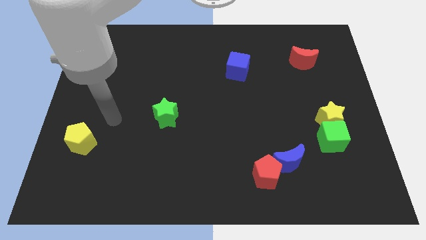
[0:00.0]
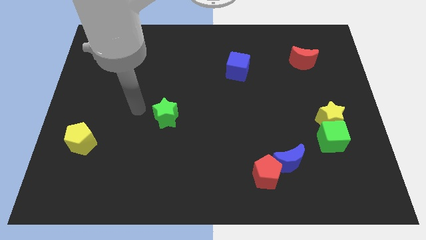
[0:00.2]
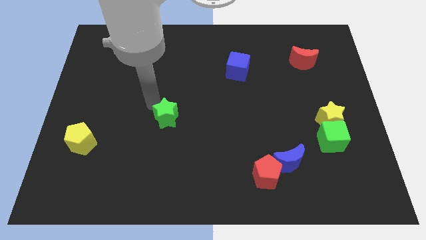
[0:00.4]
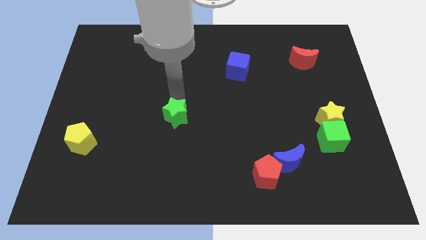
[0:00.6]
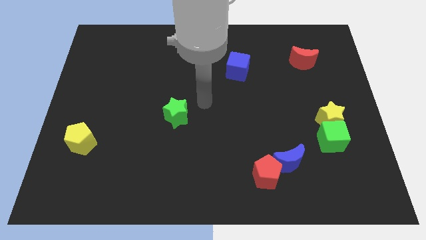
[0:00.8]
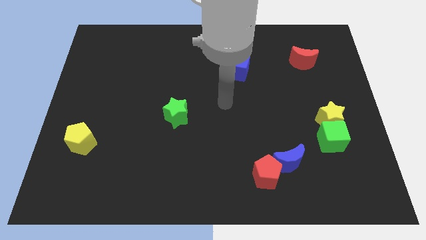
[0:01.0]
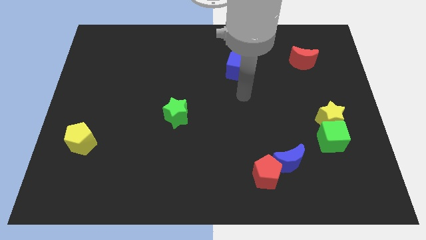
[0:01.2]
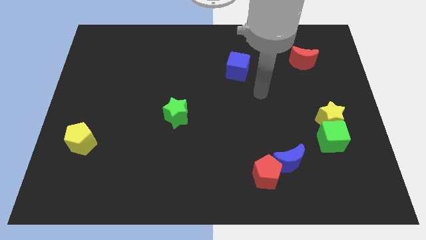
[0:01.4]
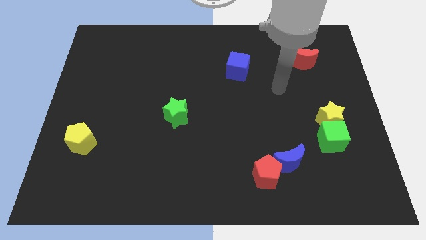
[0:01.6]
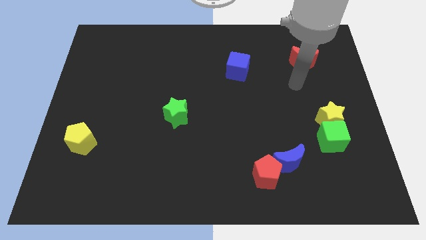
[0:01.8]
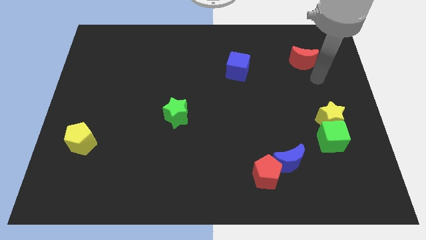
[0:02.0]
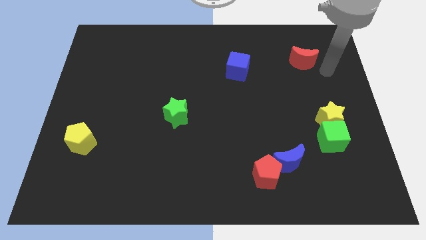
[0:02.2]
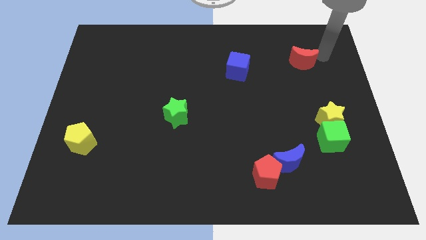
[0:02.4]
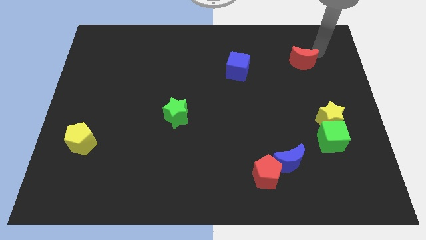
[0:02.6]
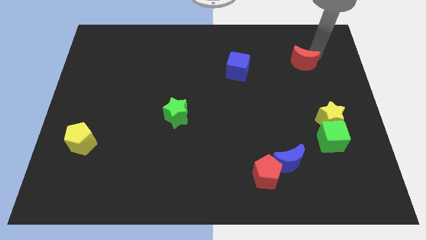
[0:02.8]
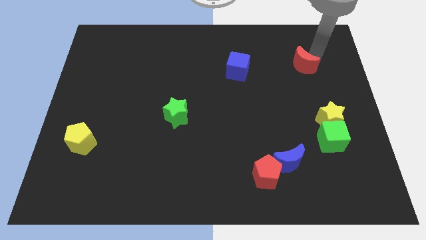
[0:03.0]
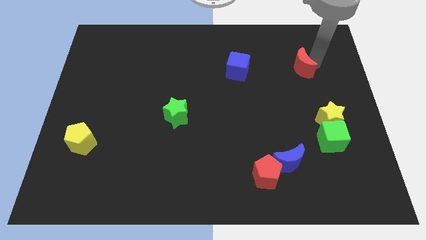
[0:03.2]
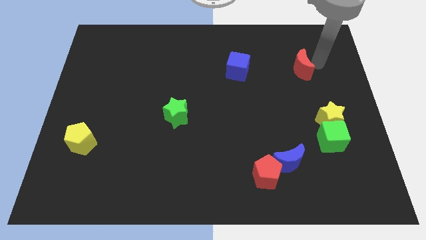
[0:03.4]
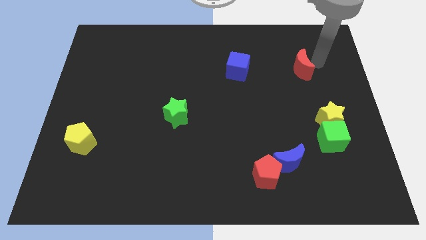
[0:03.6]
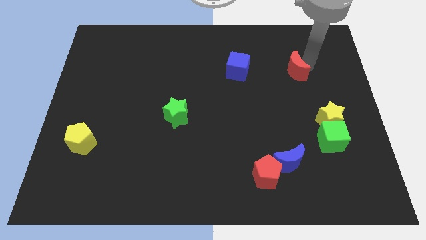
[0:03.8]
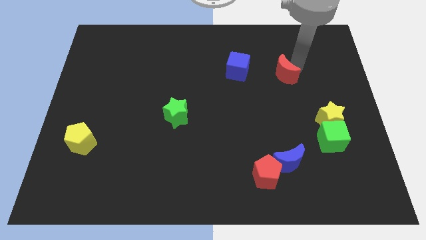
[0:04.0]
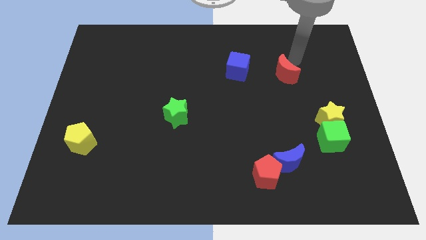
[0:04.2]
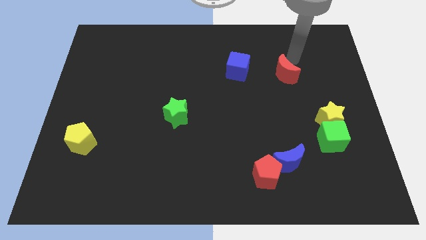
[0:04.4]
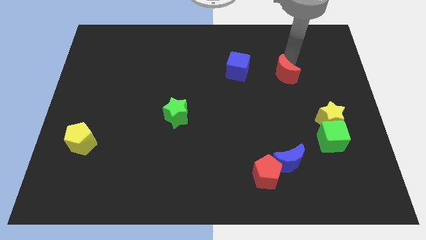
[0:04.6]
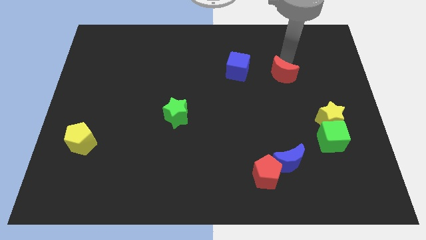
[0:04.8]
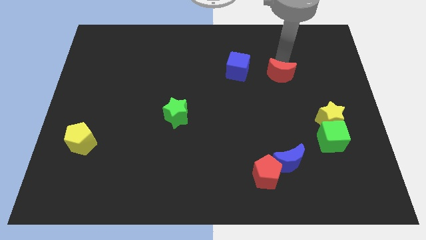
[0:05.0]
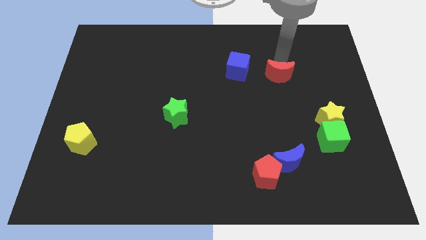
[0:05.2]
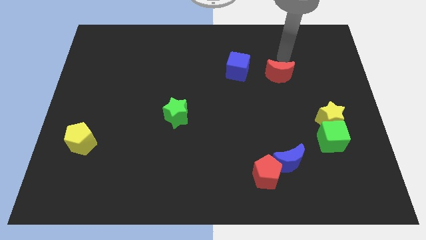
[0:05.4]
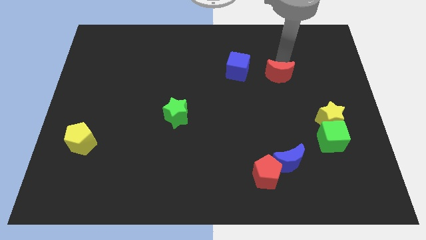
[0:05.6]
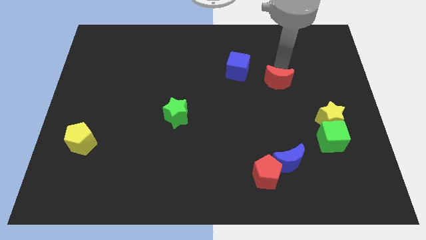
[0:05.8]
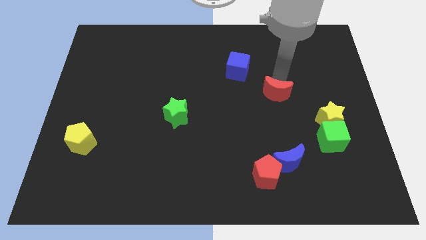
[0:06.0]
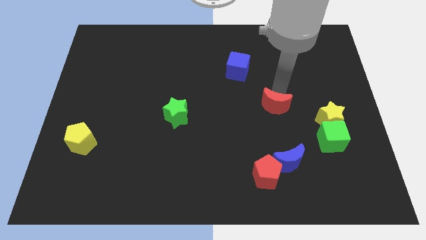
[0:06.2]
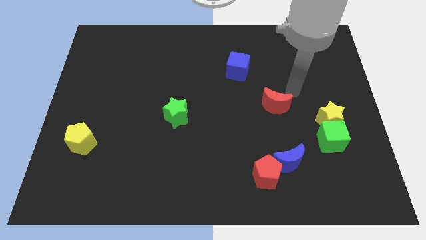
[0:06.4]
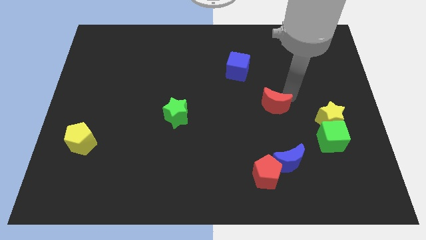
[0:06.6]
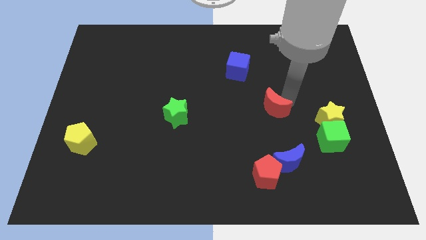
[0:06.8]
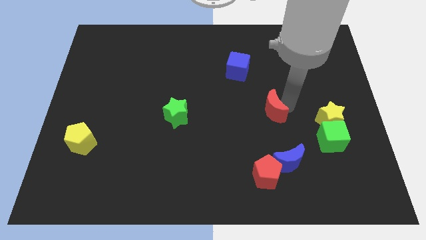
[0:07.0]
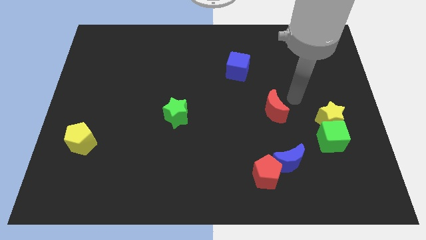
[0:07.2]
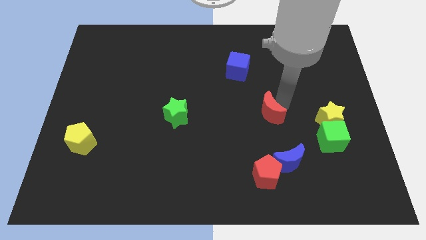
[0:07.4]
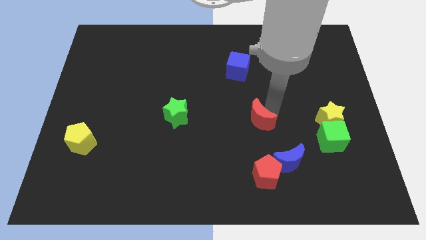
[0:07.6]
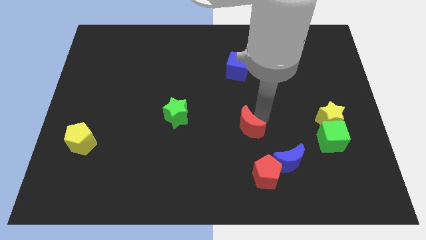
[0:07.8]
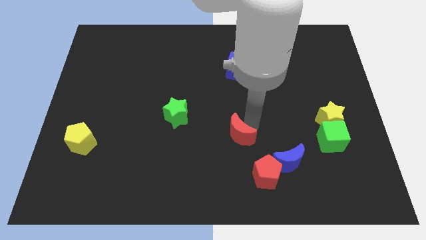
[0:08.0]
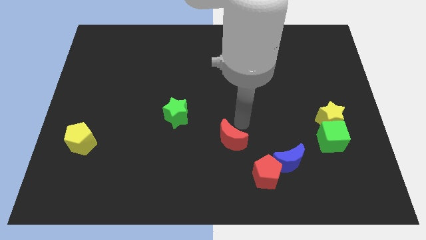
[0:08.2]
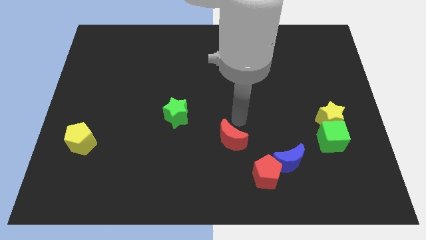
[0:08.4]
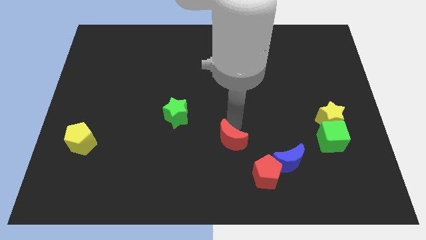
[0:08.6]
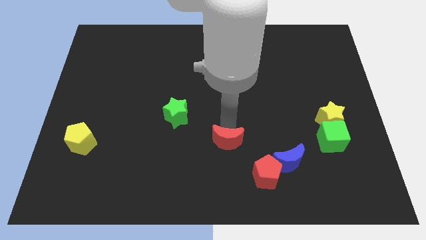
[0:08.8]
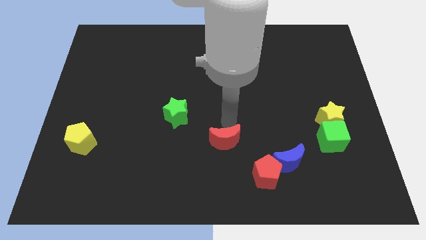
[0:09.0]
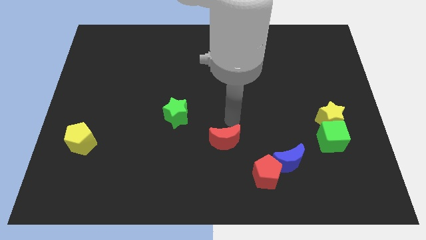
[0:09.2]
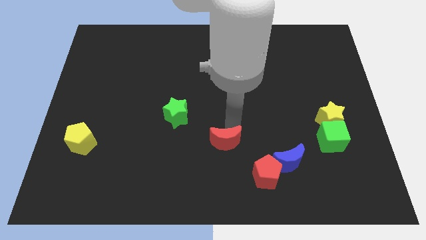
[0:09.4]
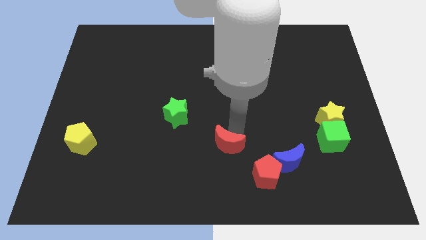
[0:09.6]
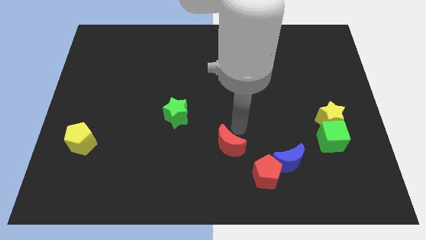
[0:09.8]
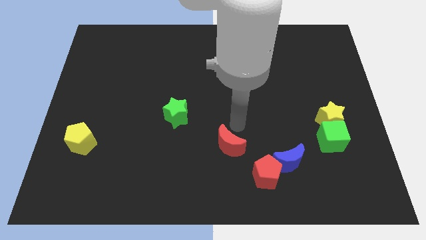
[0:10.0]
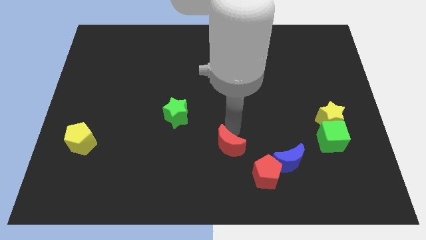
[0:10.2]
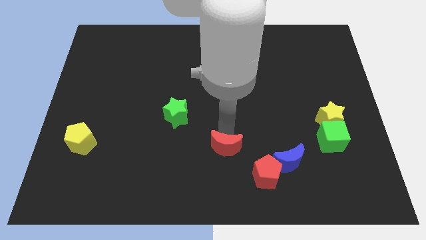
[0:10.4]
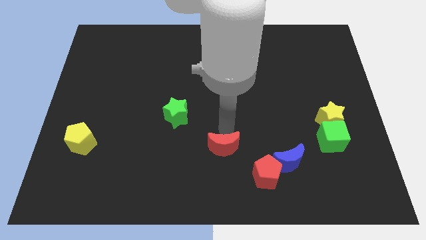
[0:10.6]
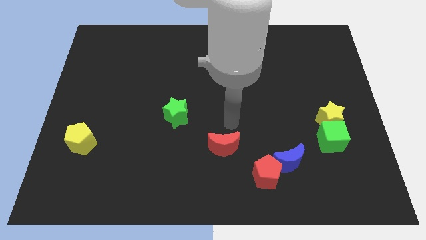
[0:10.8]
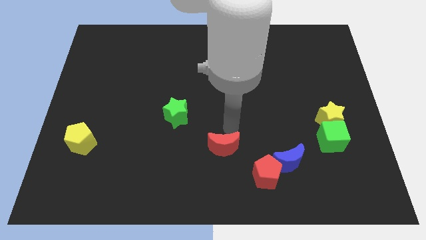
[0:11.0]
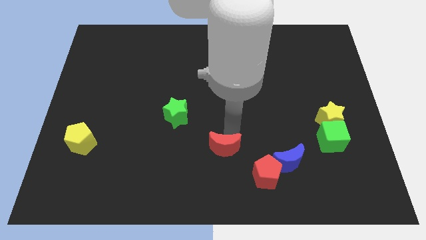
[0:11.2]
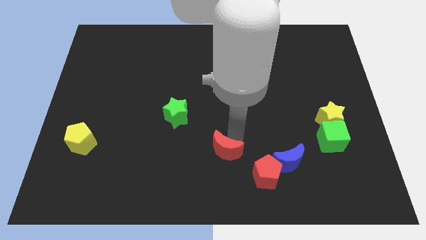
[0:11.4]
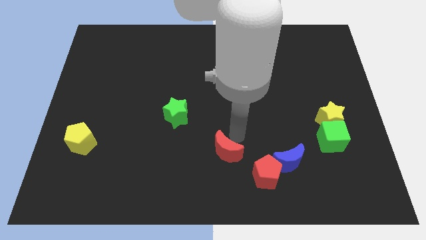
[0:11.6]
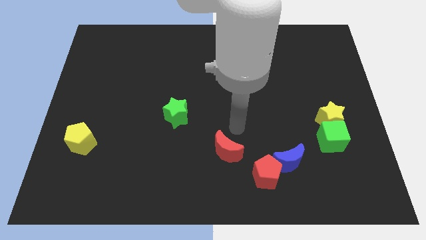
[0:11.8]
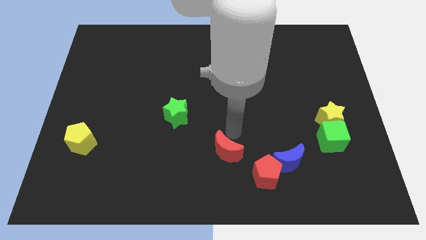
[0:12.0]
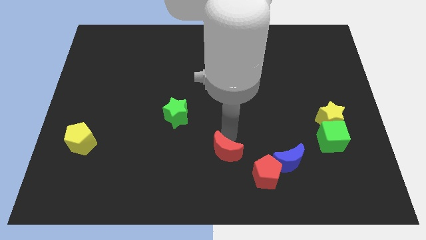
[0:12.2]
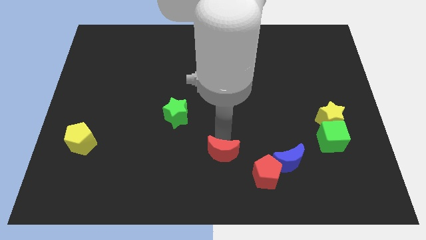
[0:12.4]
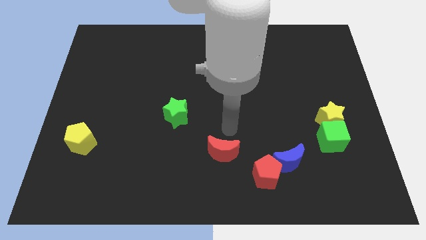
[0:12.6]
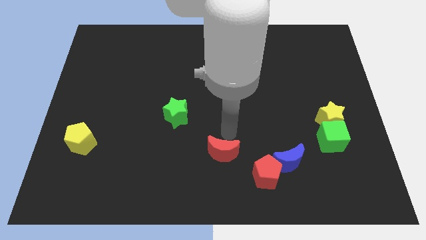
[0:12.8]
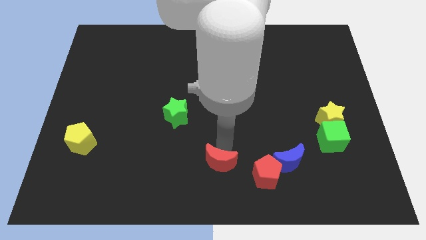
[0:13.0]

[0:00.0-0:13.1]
slide the red moon just left of the red pentagon
